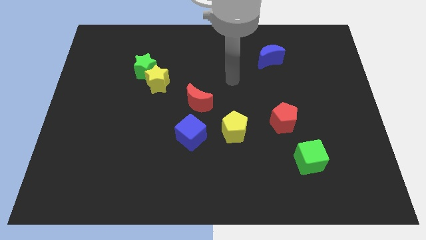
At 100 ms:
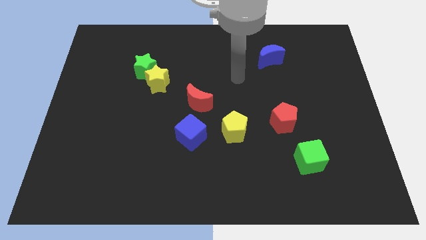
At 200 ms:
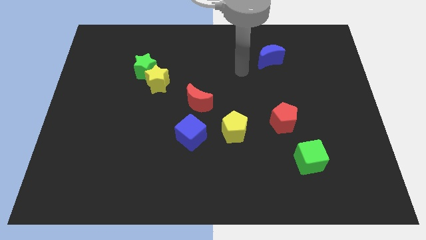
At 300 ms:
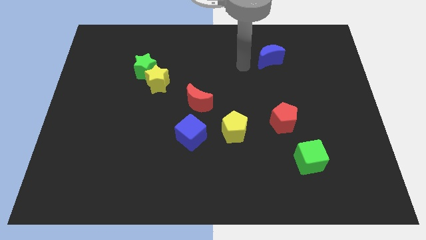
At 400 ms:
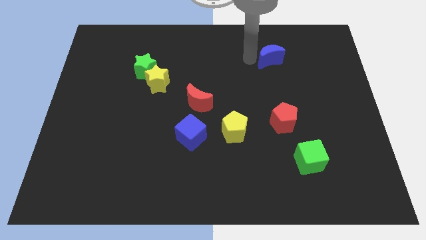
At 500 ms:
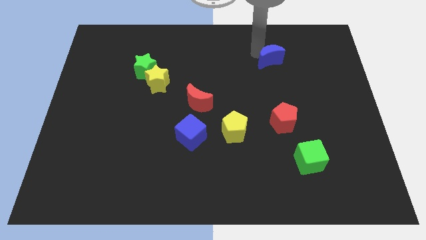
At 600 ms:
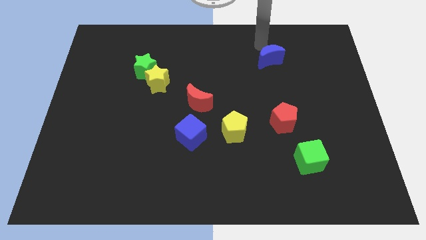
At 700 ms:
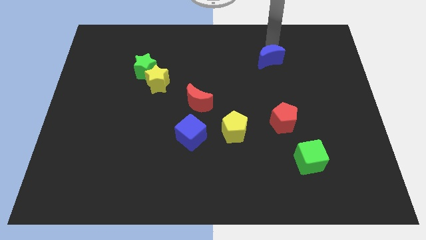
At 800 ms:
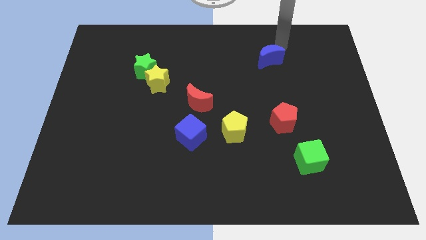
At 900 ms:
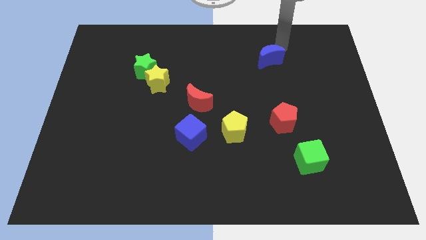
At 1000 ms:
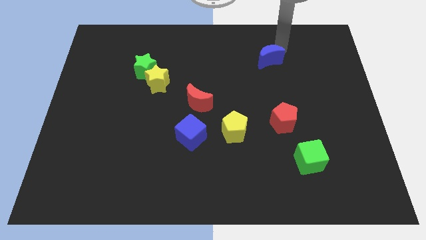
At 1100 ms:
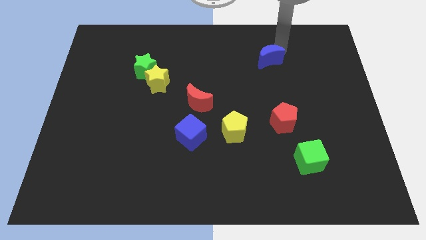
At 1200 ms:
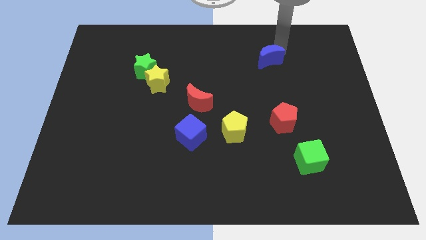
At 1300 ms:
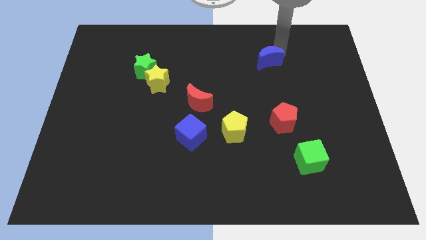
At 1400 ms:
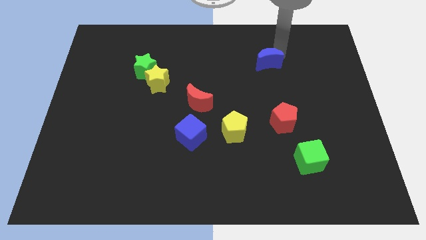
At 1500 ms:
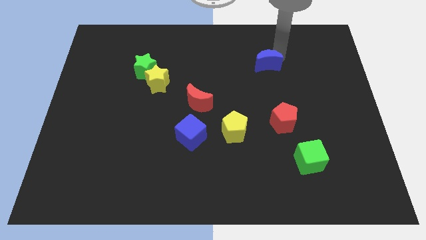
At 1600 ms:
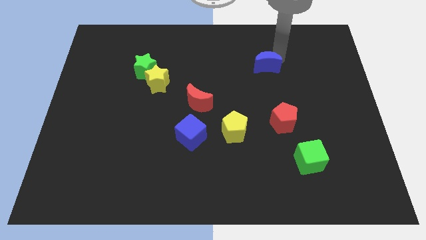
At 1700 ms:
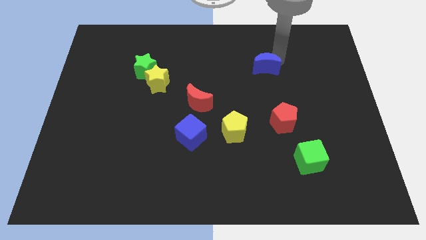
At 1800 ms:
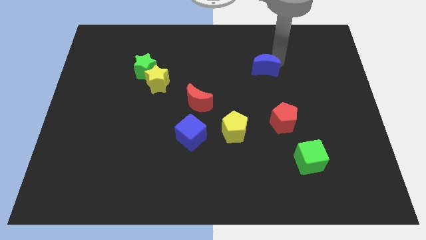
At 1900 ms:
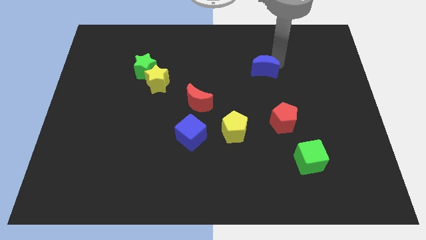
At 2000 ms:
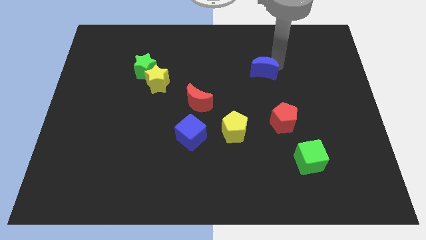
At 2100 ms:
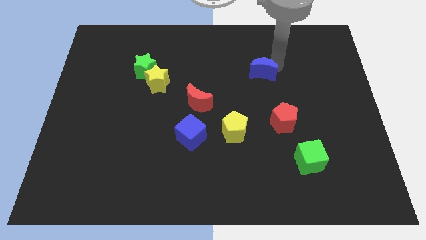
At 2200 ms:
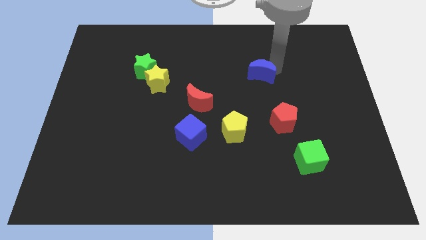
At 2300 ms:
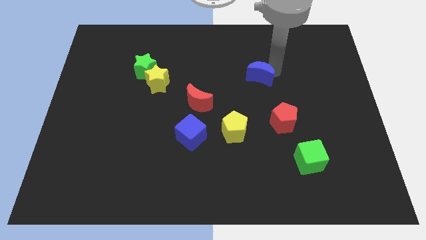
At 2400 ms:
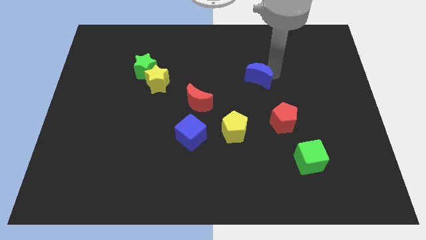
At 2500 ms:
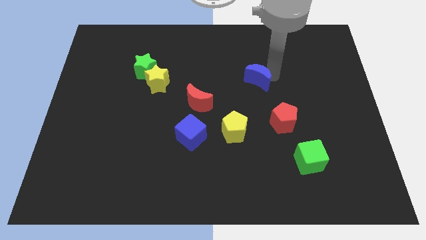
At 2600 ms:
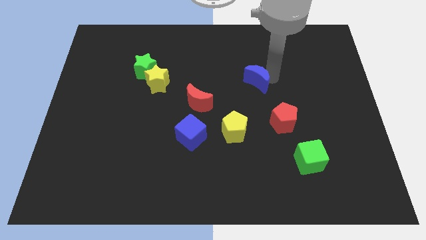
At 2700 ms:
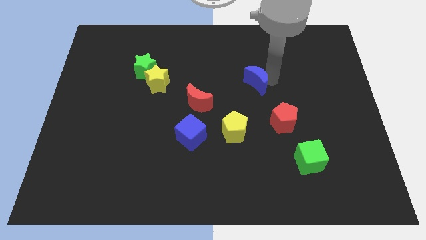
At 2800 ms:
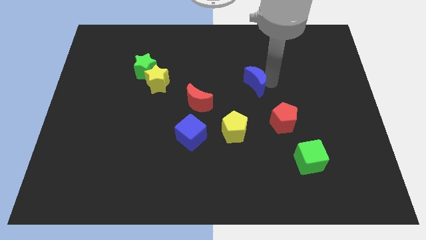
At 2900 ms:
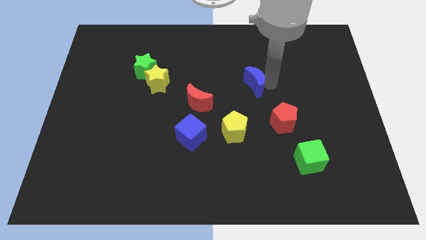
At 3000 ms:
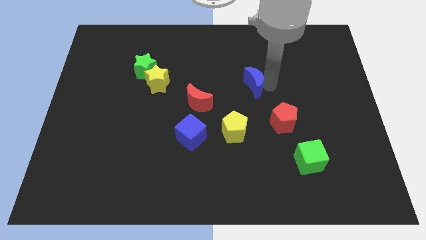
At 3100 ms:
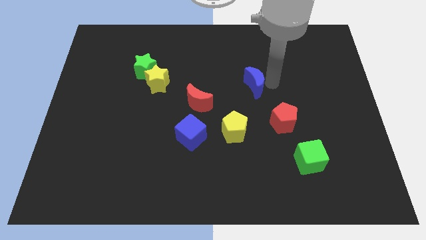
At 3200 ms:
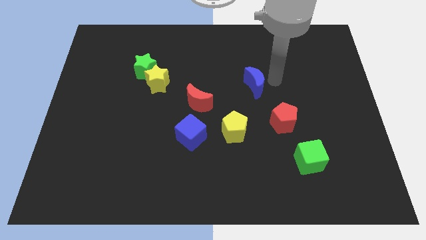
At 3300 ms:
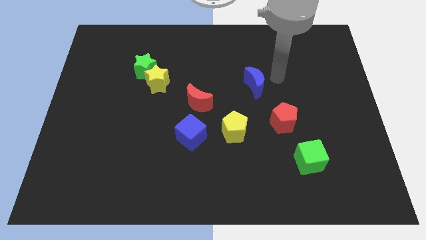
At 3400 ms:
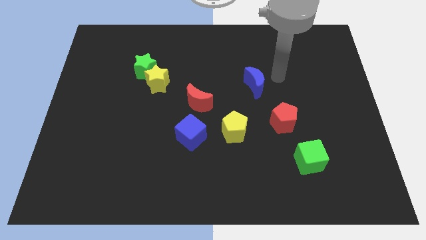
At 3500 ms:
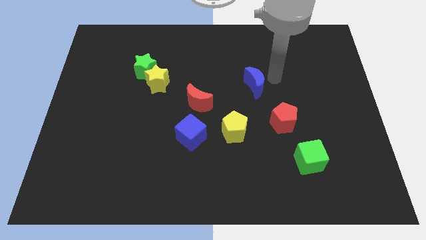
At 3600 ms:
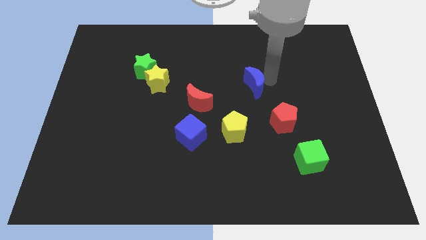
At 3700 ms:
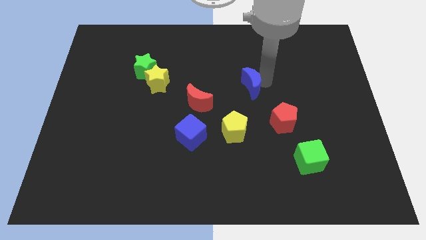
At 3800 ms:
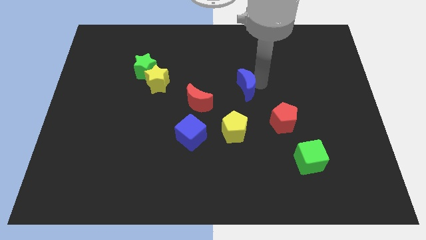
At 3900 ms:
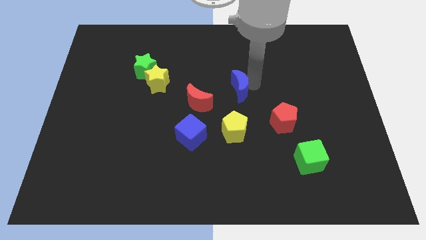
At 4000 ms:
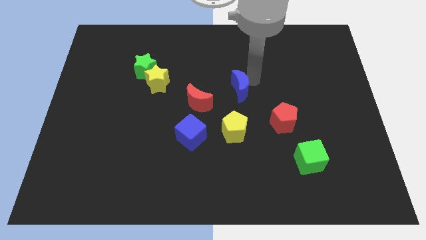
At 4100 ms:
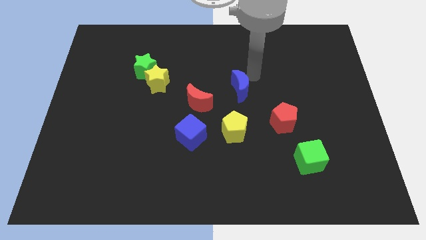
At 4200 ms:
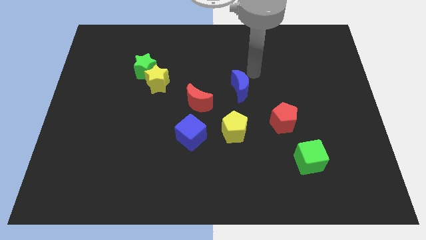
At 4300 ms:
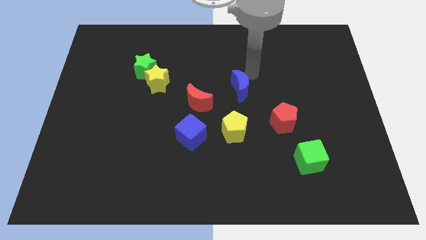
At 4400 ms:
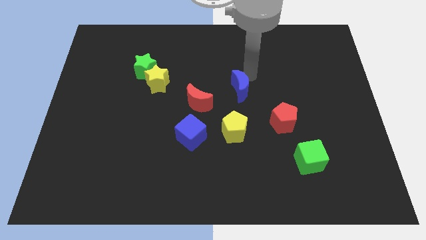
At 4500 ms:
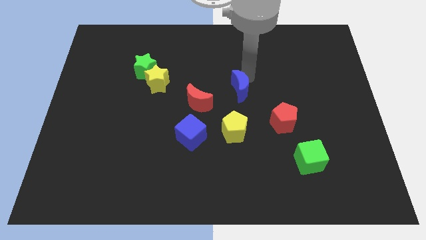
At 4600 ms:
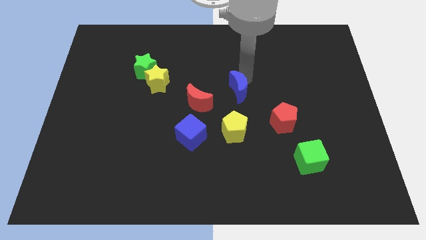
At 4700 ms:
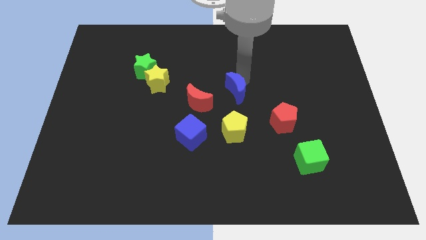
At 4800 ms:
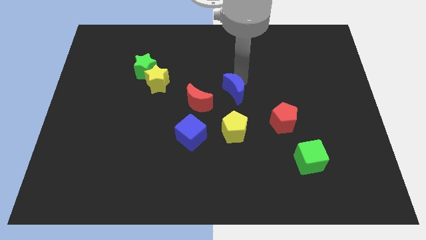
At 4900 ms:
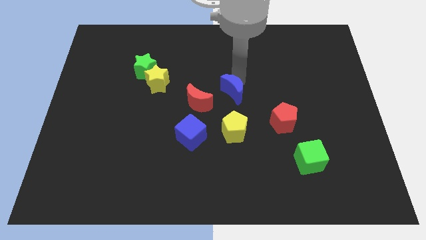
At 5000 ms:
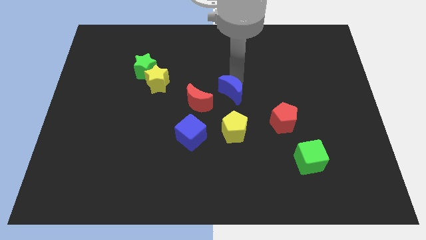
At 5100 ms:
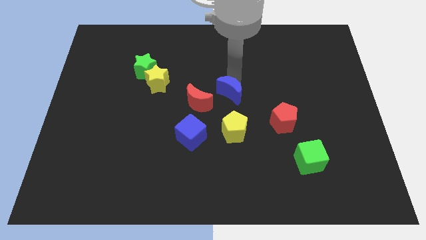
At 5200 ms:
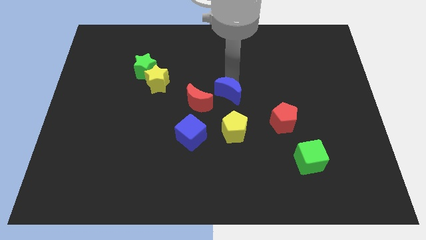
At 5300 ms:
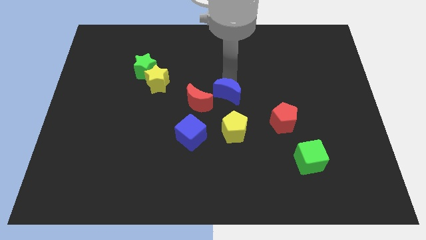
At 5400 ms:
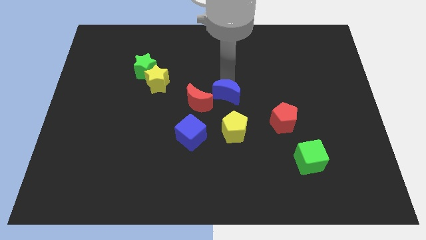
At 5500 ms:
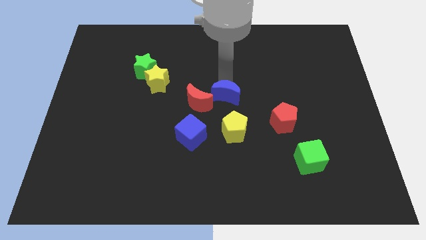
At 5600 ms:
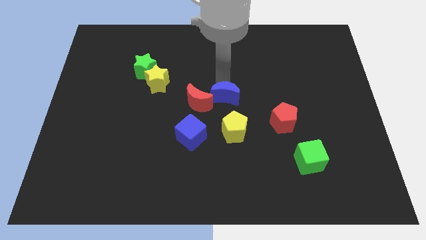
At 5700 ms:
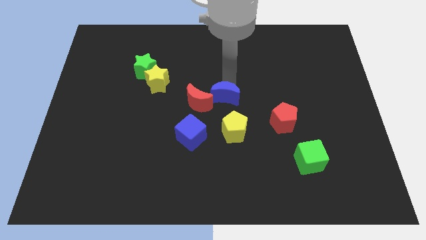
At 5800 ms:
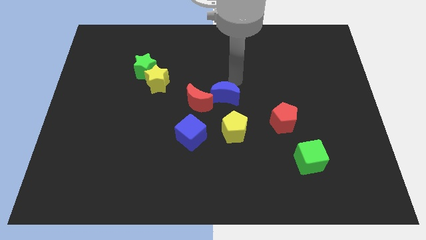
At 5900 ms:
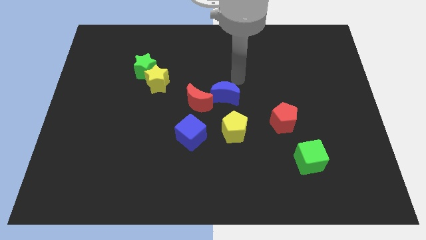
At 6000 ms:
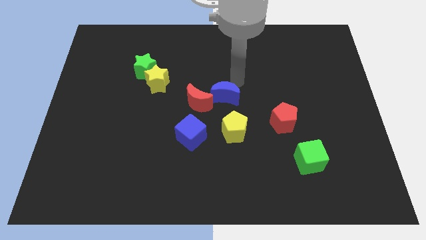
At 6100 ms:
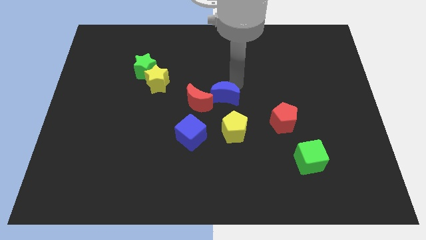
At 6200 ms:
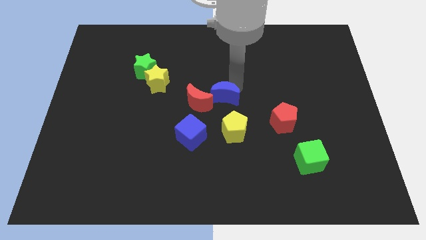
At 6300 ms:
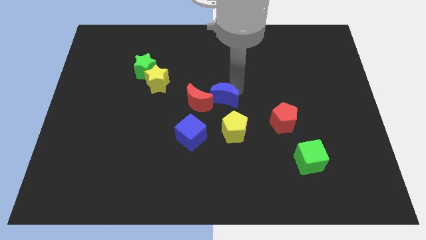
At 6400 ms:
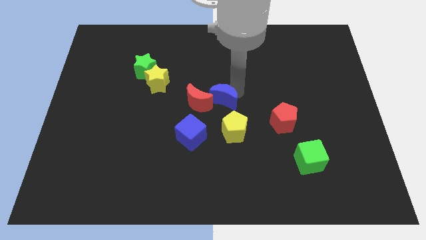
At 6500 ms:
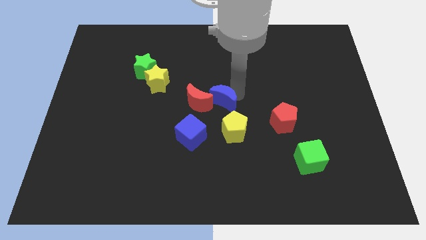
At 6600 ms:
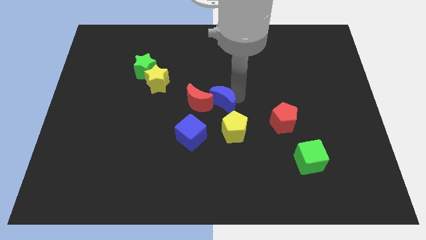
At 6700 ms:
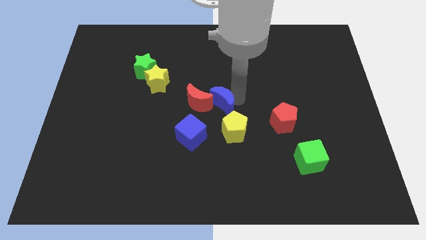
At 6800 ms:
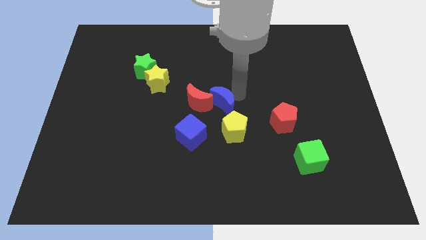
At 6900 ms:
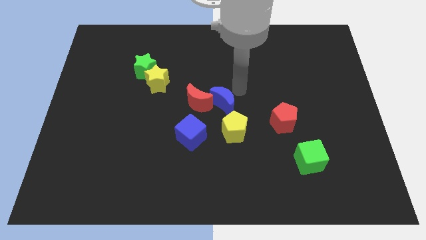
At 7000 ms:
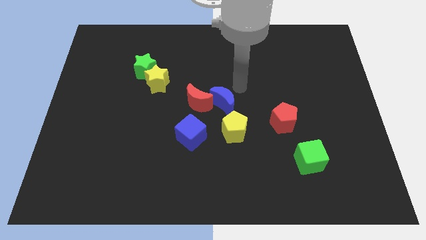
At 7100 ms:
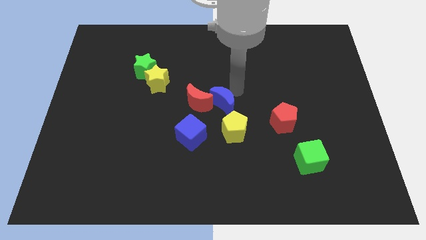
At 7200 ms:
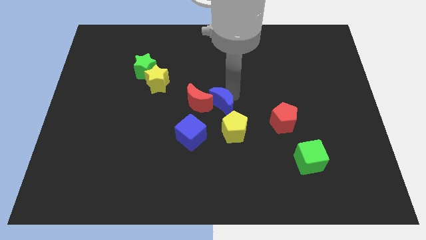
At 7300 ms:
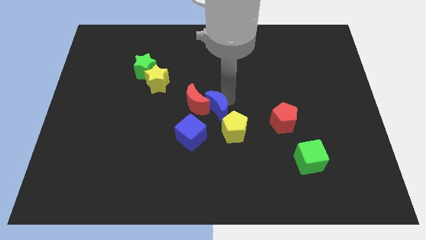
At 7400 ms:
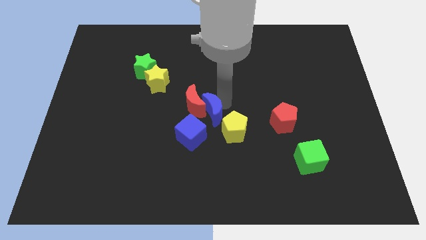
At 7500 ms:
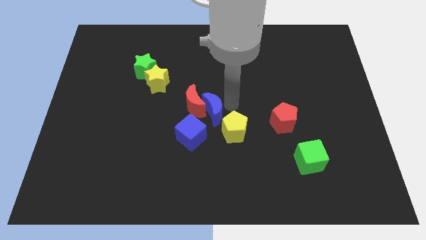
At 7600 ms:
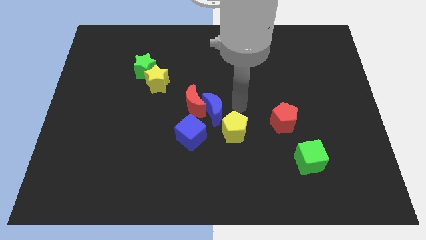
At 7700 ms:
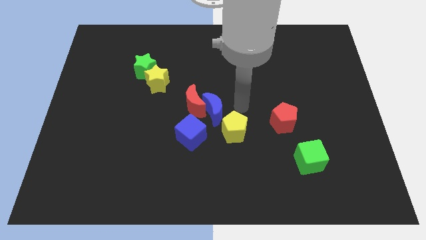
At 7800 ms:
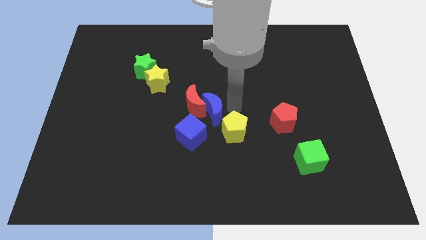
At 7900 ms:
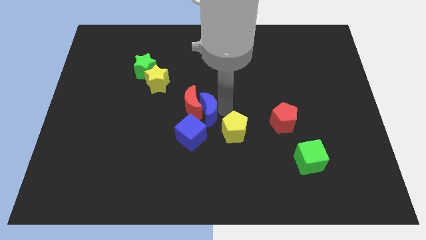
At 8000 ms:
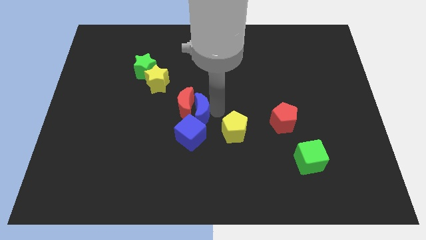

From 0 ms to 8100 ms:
move the blue moon to the left of the yellow pentagon
